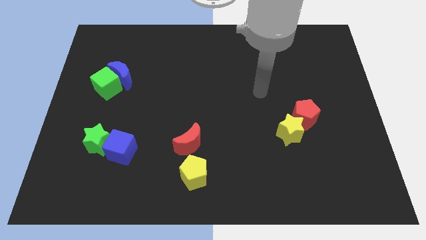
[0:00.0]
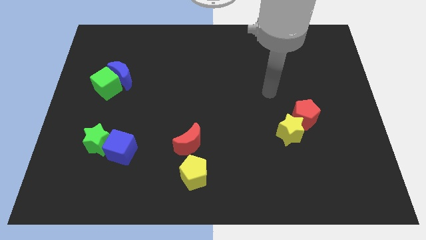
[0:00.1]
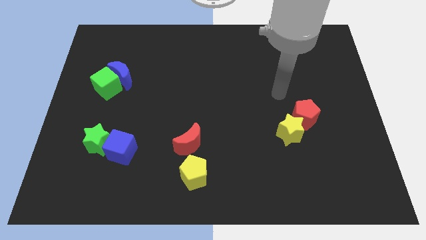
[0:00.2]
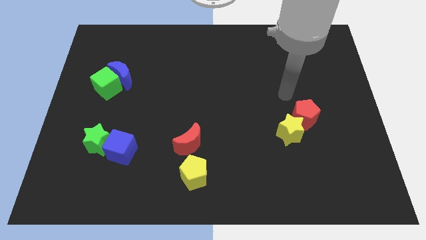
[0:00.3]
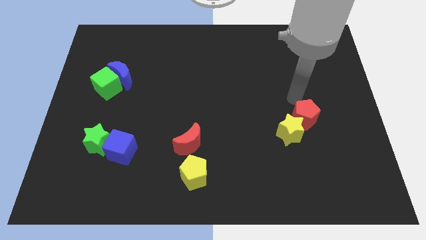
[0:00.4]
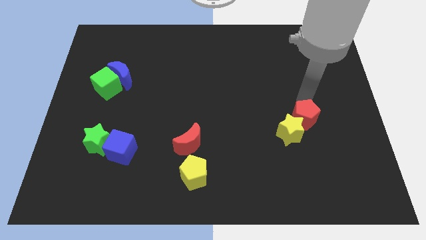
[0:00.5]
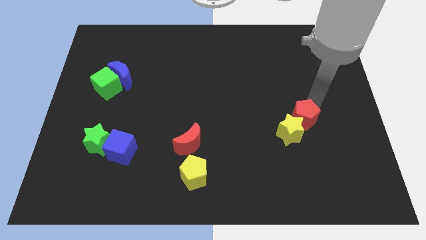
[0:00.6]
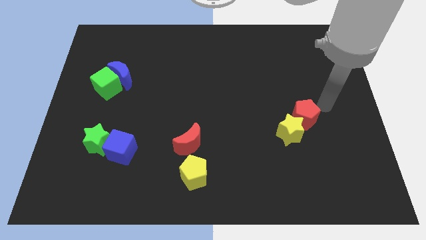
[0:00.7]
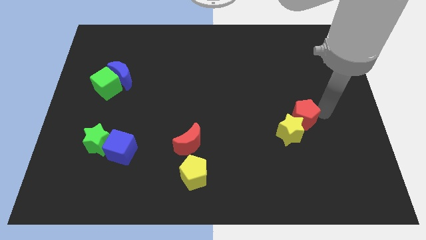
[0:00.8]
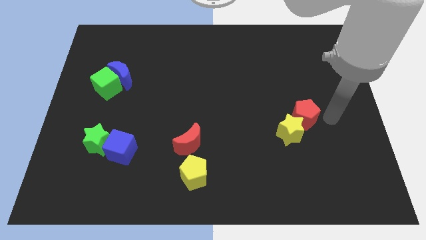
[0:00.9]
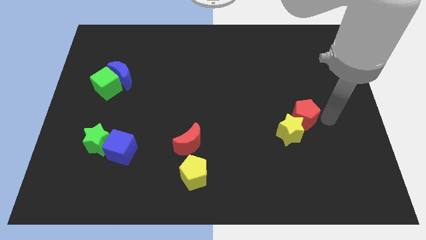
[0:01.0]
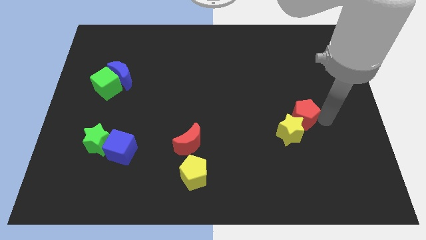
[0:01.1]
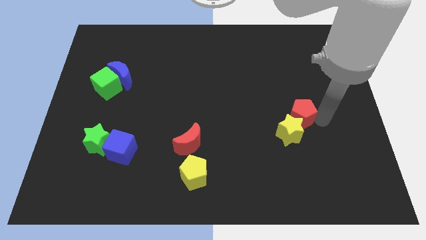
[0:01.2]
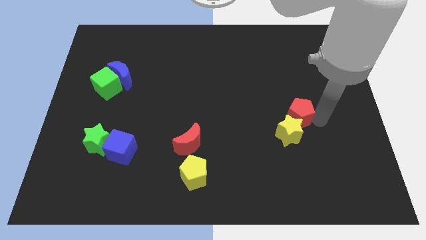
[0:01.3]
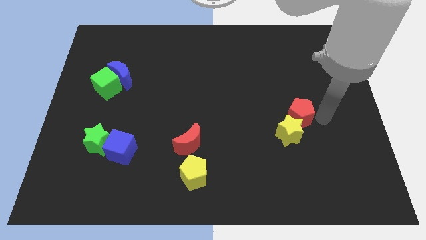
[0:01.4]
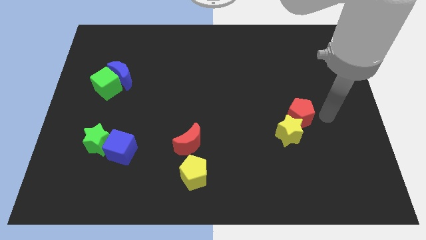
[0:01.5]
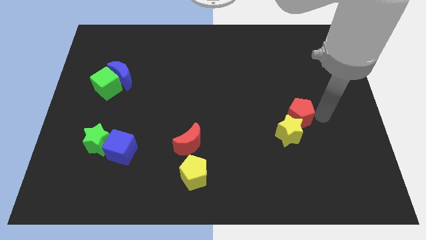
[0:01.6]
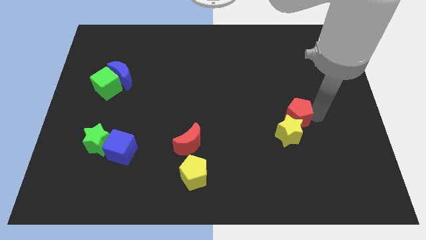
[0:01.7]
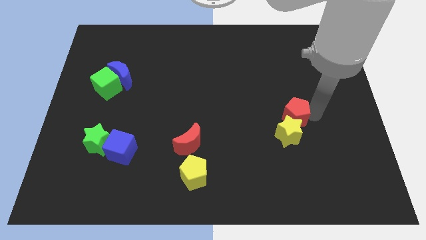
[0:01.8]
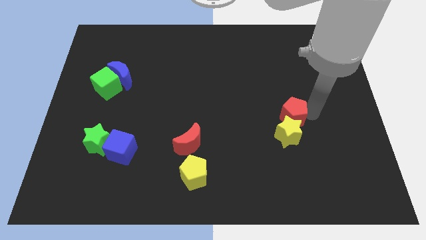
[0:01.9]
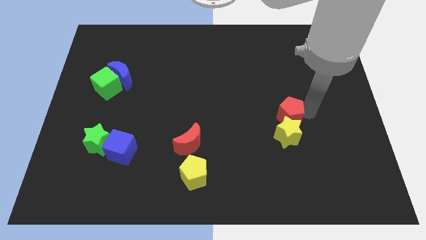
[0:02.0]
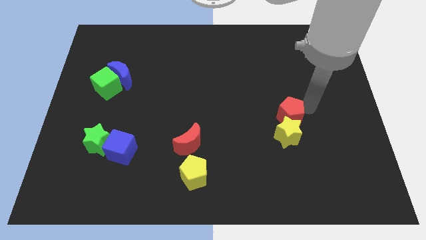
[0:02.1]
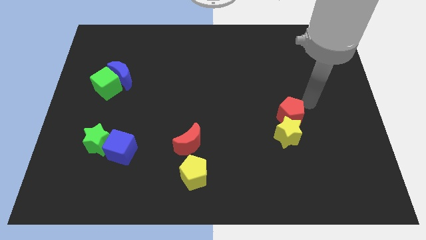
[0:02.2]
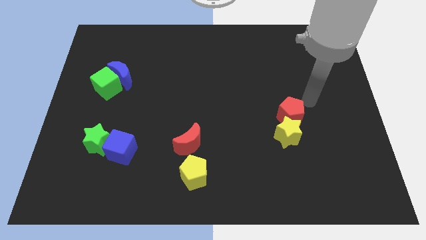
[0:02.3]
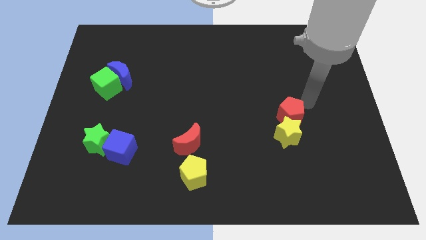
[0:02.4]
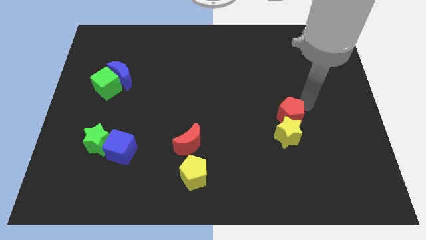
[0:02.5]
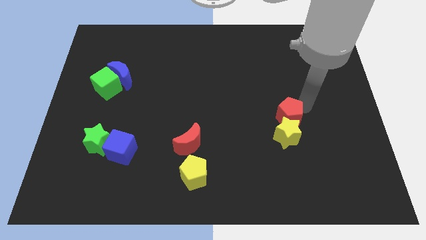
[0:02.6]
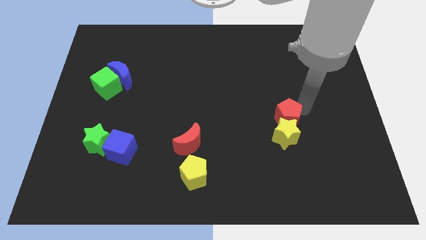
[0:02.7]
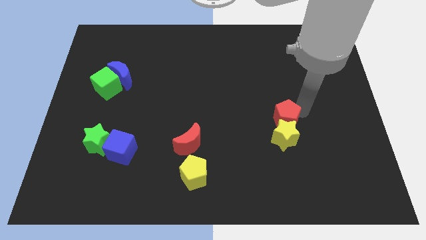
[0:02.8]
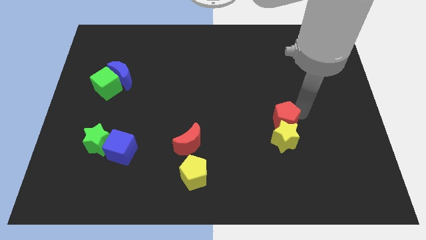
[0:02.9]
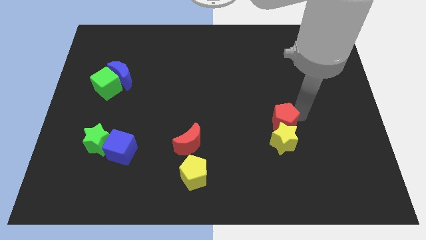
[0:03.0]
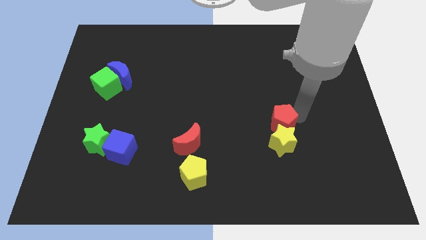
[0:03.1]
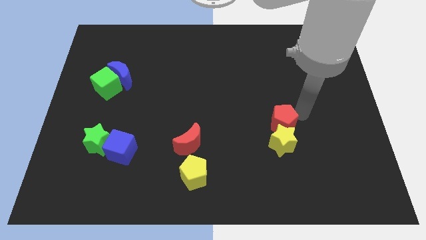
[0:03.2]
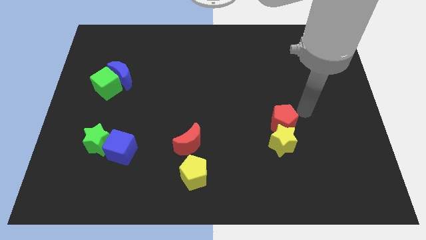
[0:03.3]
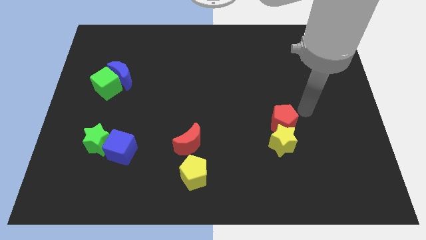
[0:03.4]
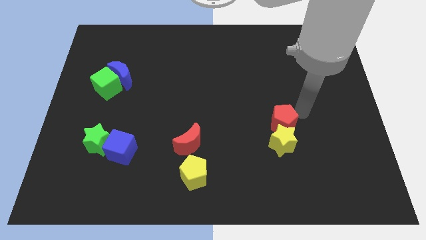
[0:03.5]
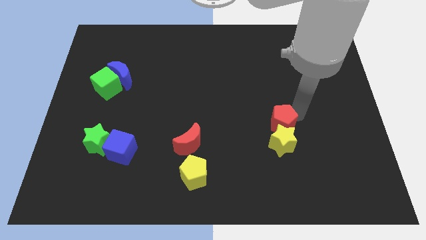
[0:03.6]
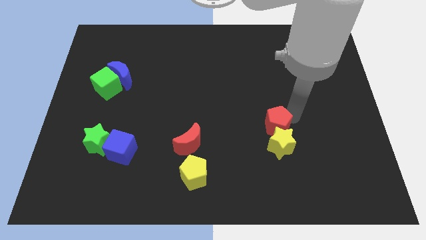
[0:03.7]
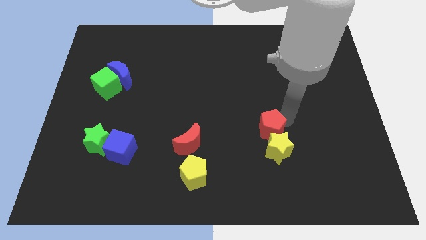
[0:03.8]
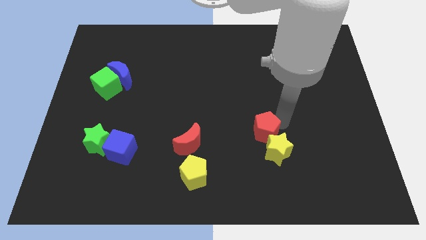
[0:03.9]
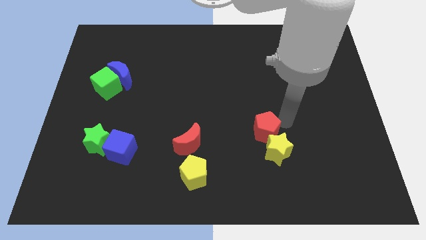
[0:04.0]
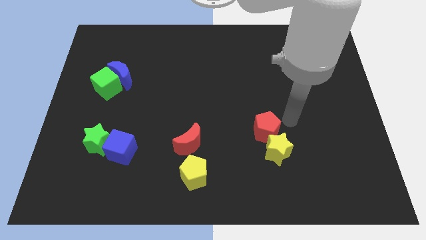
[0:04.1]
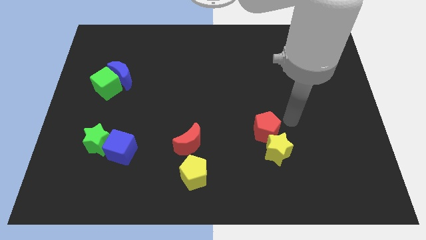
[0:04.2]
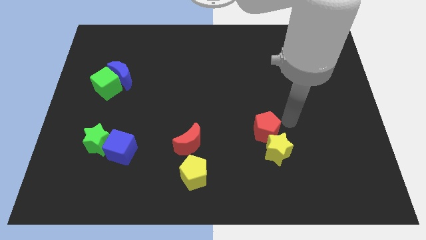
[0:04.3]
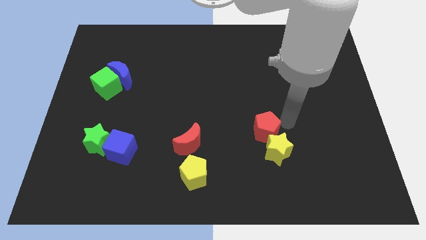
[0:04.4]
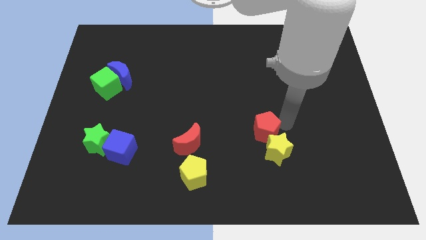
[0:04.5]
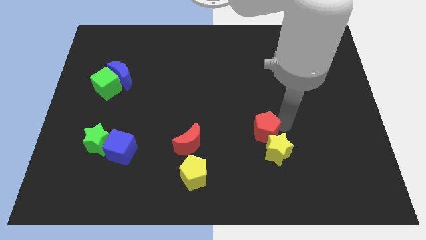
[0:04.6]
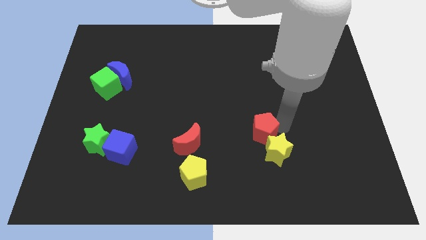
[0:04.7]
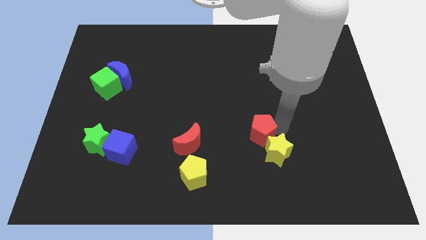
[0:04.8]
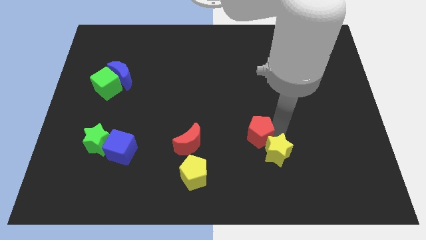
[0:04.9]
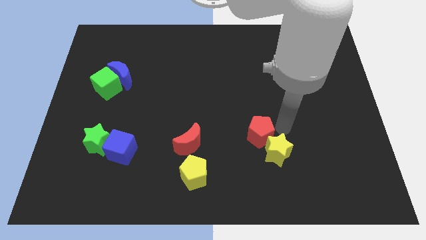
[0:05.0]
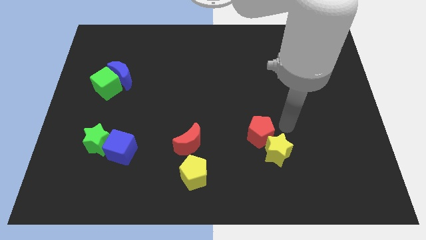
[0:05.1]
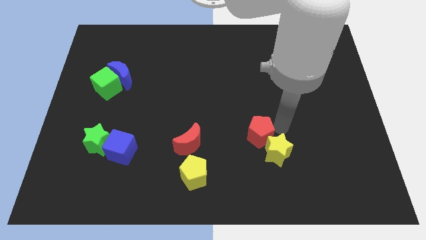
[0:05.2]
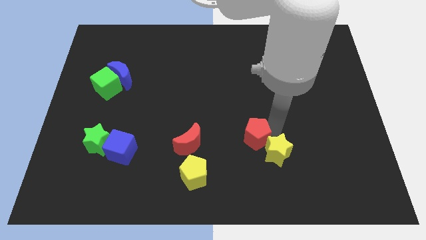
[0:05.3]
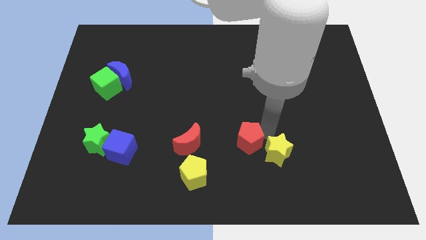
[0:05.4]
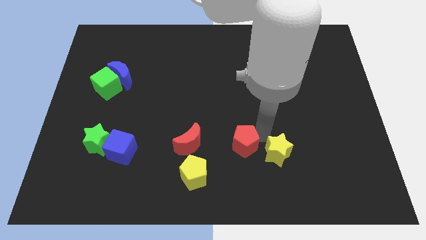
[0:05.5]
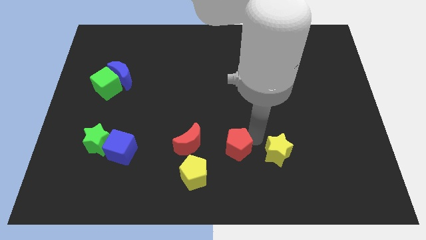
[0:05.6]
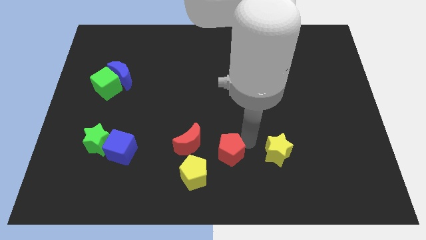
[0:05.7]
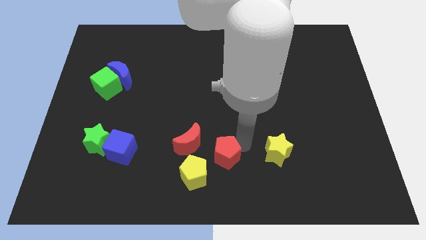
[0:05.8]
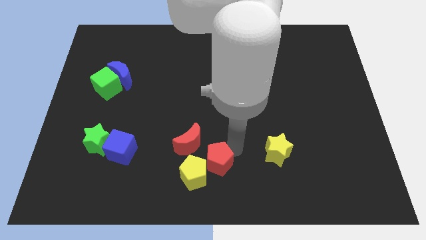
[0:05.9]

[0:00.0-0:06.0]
move the red pentagon towards the yellow pentagon

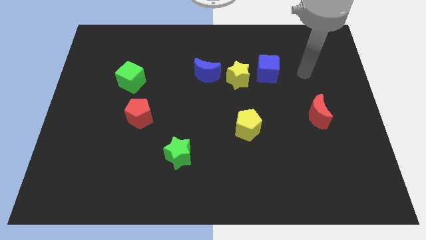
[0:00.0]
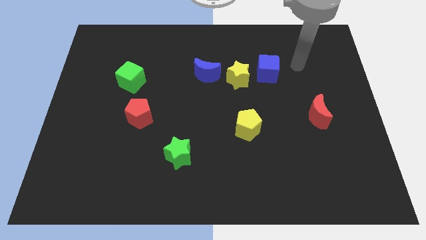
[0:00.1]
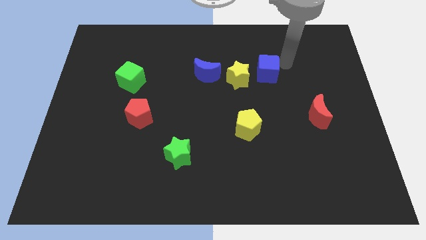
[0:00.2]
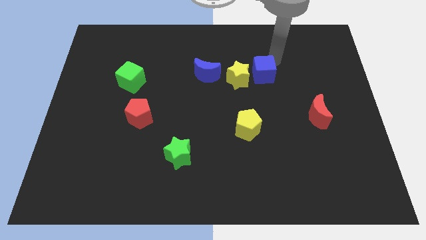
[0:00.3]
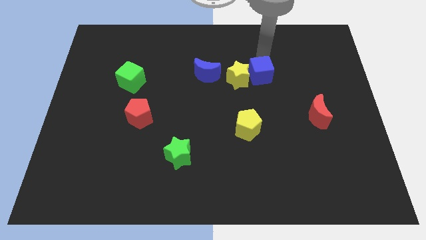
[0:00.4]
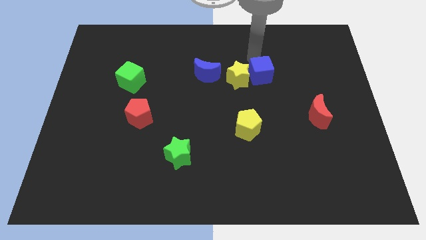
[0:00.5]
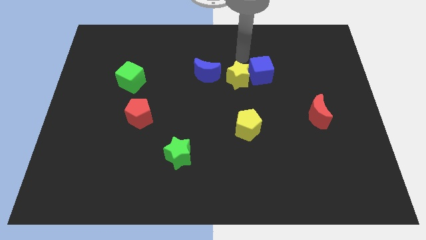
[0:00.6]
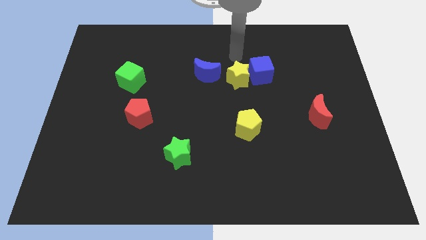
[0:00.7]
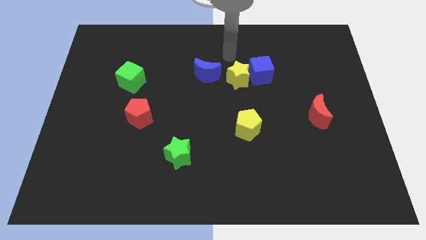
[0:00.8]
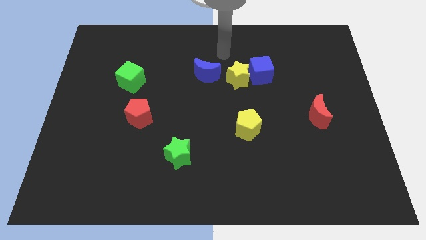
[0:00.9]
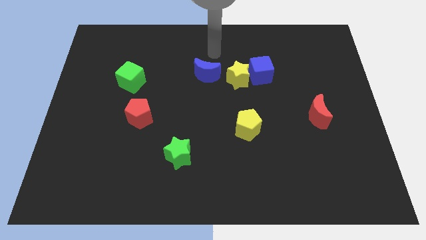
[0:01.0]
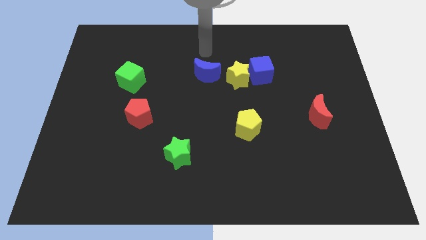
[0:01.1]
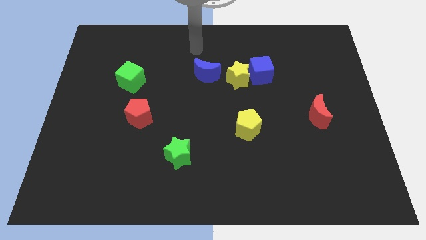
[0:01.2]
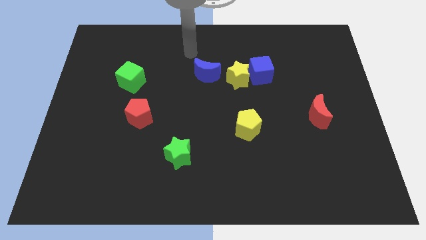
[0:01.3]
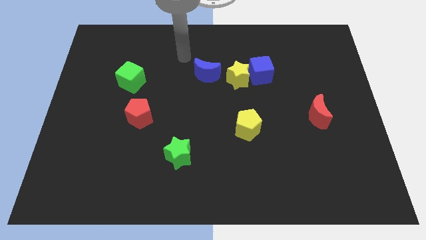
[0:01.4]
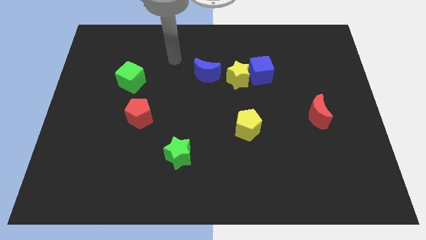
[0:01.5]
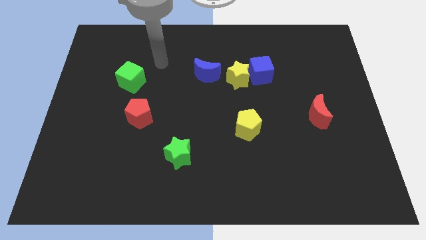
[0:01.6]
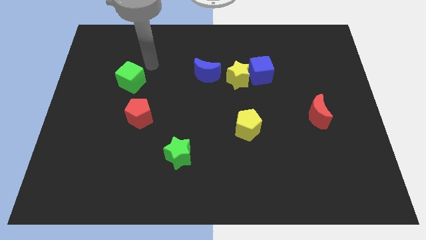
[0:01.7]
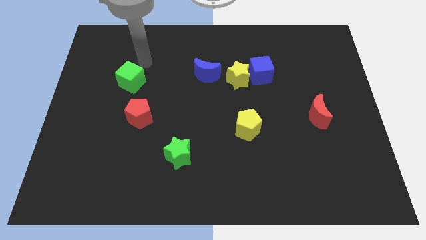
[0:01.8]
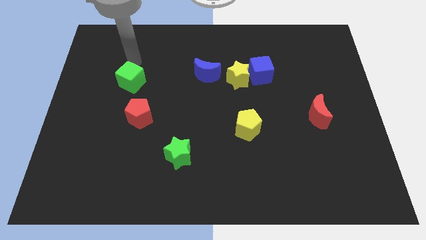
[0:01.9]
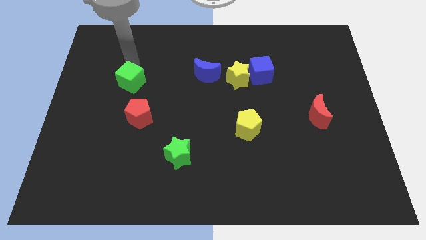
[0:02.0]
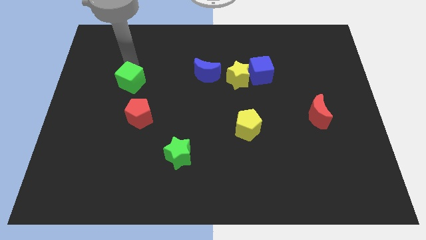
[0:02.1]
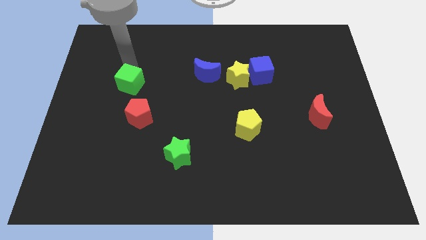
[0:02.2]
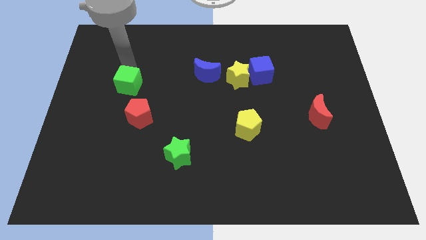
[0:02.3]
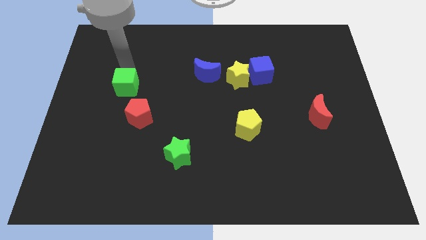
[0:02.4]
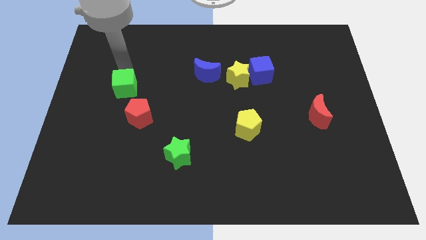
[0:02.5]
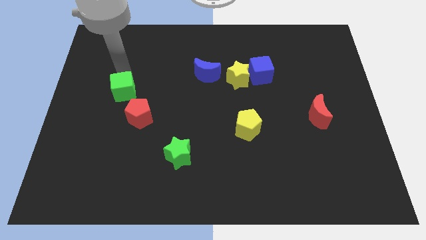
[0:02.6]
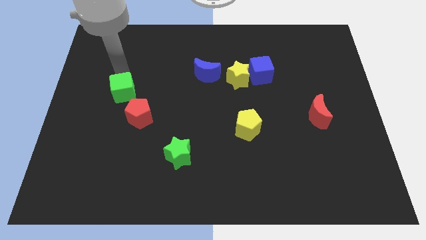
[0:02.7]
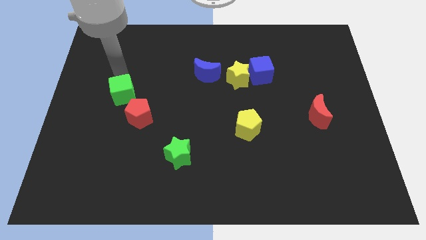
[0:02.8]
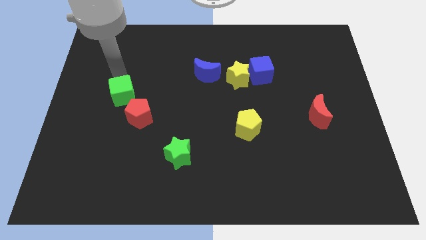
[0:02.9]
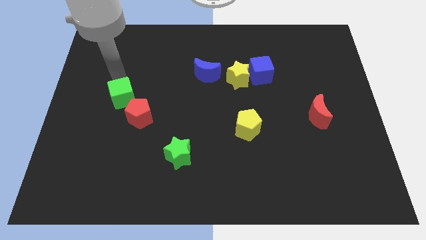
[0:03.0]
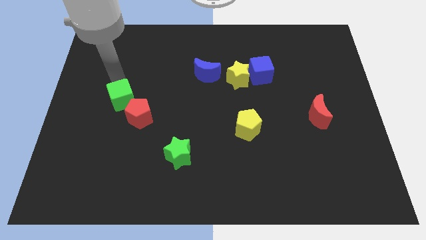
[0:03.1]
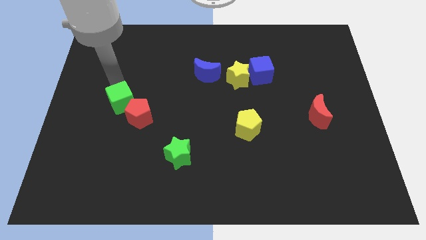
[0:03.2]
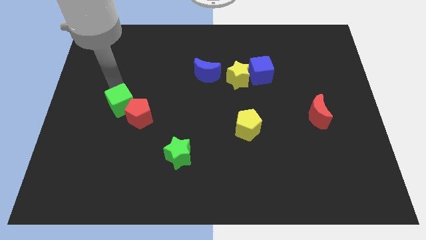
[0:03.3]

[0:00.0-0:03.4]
push the green cube next to the red pentagon
